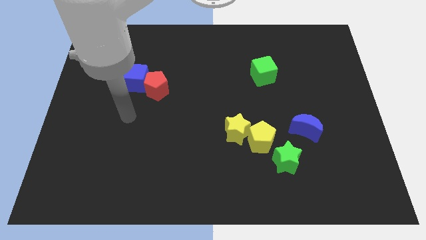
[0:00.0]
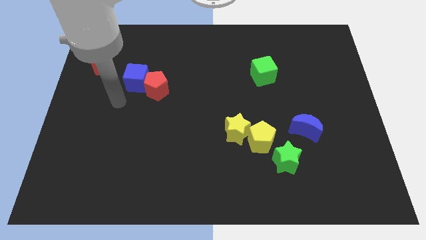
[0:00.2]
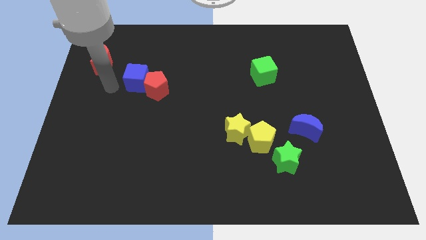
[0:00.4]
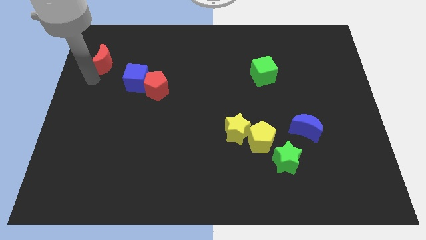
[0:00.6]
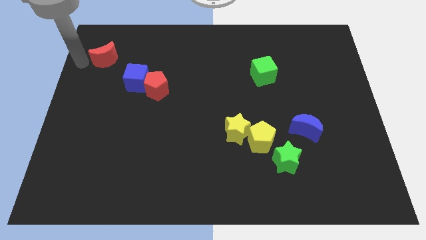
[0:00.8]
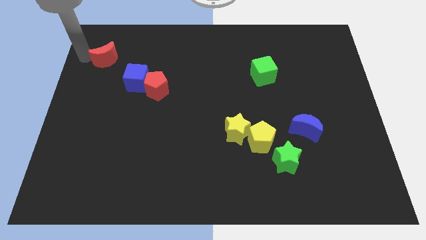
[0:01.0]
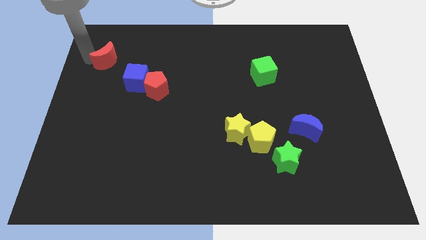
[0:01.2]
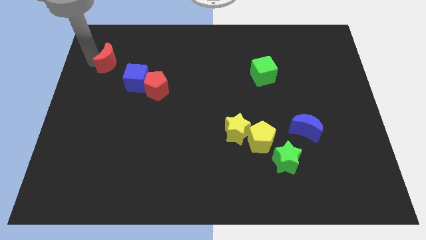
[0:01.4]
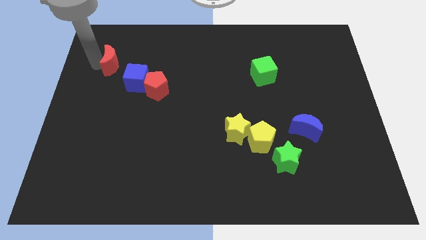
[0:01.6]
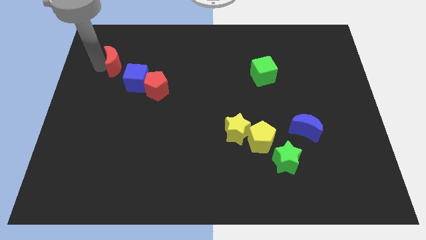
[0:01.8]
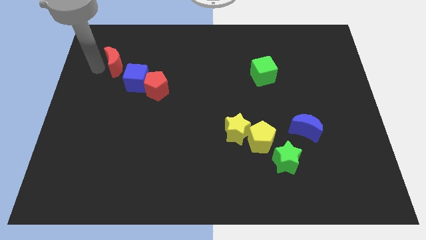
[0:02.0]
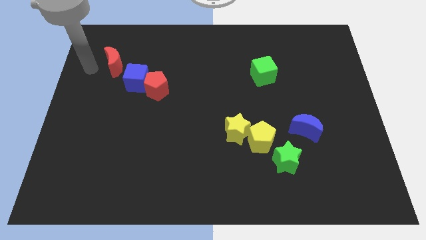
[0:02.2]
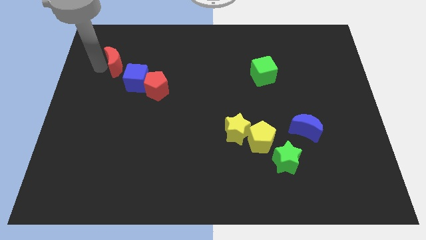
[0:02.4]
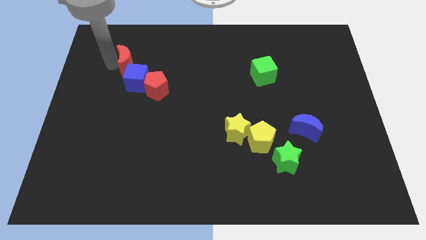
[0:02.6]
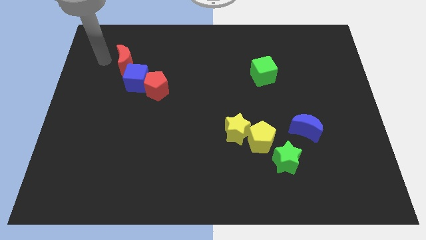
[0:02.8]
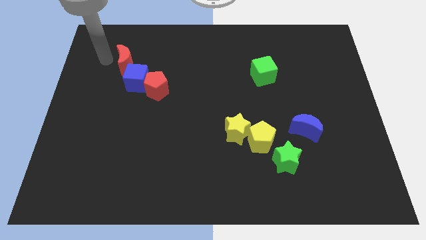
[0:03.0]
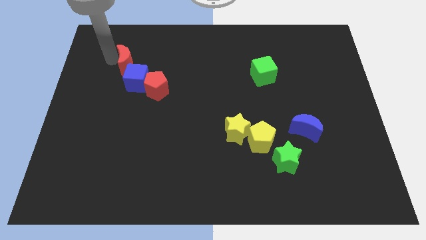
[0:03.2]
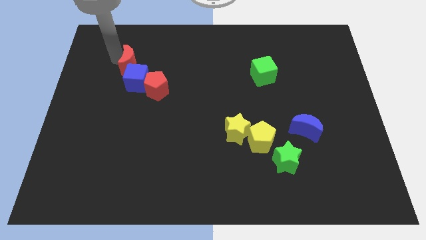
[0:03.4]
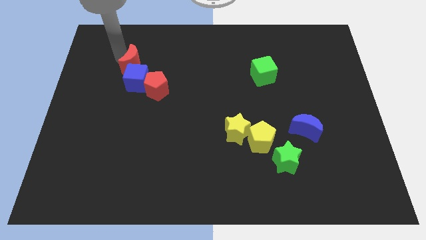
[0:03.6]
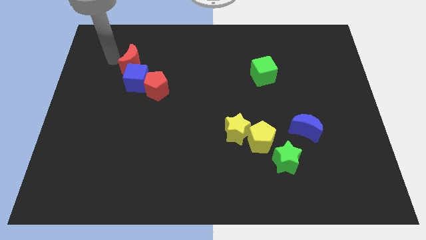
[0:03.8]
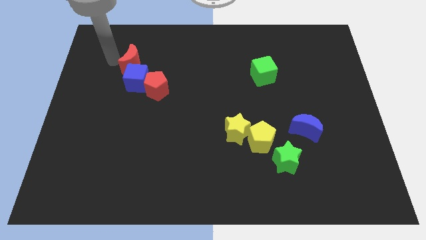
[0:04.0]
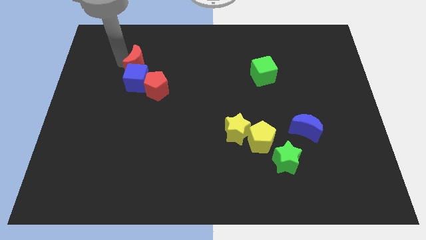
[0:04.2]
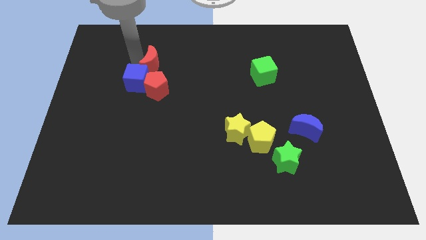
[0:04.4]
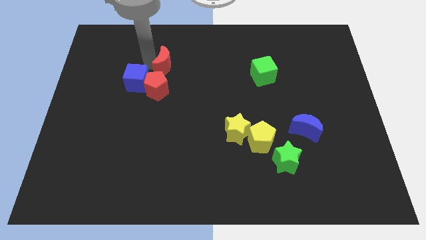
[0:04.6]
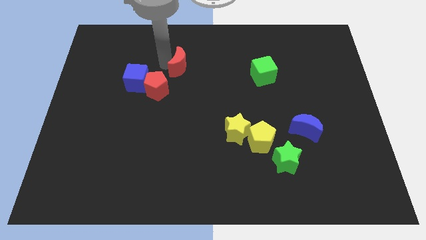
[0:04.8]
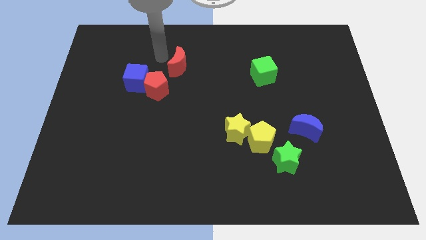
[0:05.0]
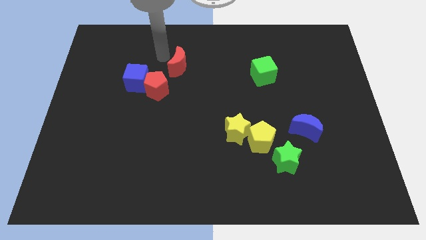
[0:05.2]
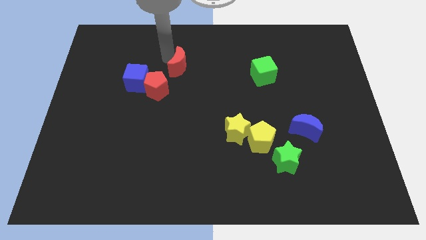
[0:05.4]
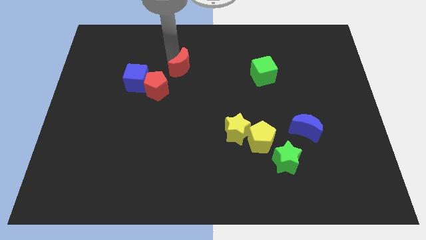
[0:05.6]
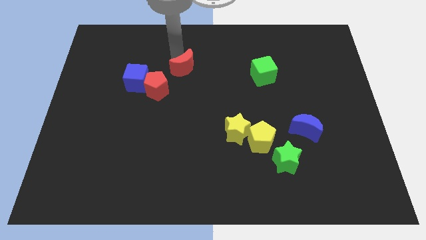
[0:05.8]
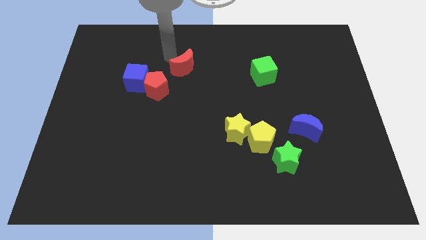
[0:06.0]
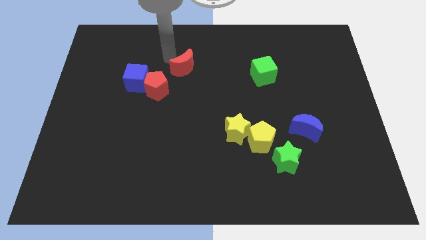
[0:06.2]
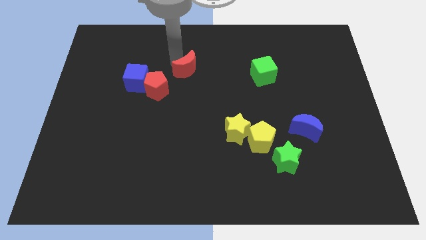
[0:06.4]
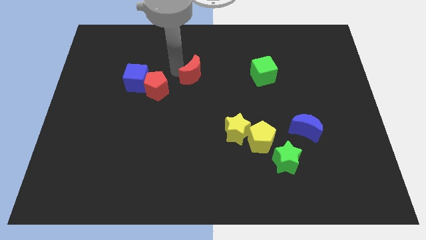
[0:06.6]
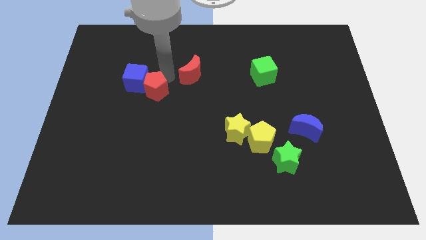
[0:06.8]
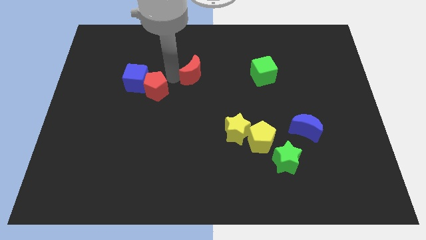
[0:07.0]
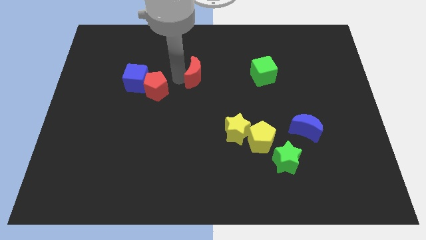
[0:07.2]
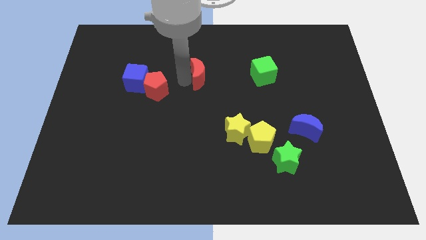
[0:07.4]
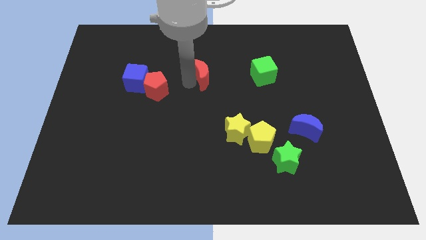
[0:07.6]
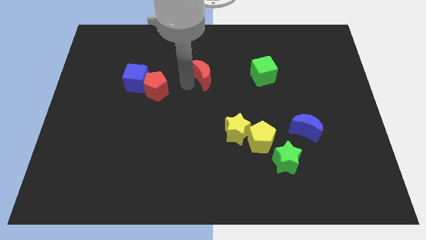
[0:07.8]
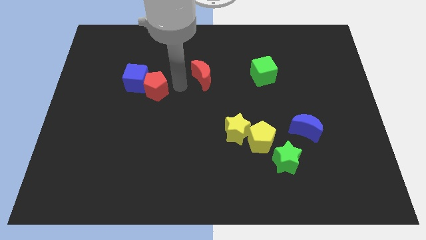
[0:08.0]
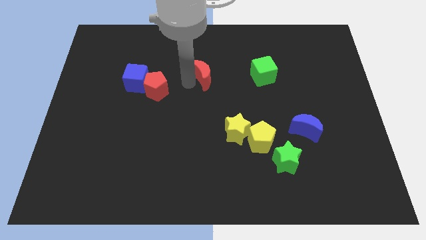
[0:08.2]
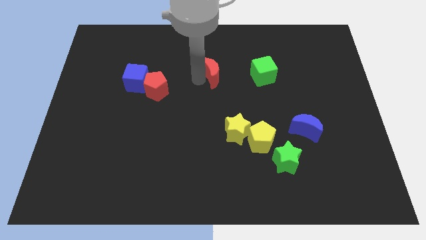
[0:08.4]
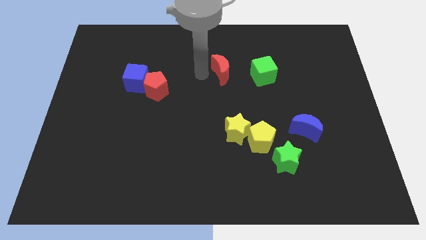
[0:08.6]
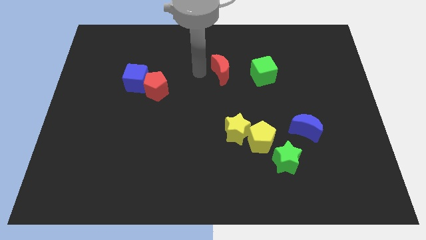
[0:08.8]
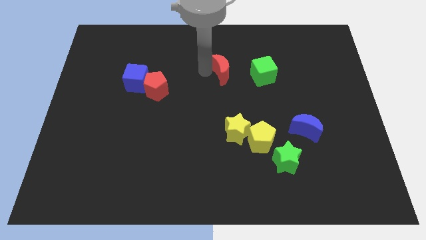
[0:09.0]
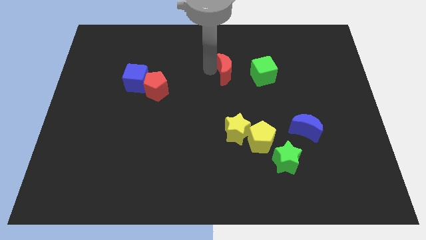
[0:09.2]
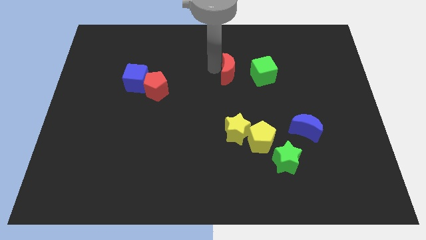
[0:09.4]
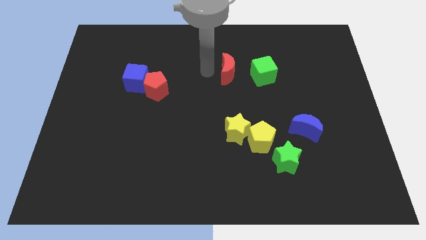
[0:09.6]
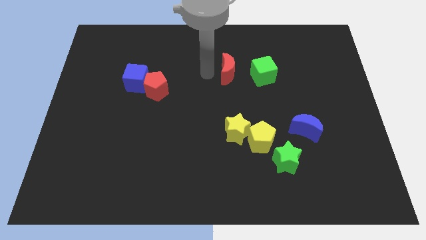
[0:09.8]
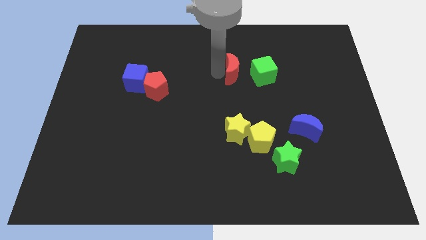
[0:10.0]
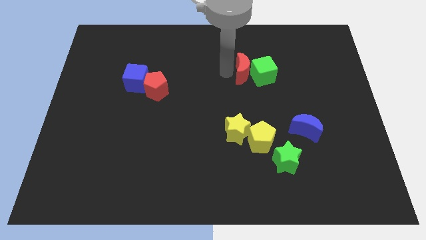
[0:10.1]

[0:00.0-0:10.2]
put the red moon to the green cube

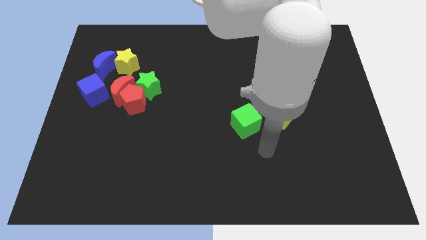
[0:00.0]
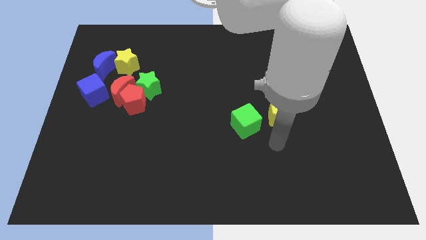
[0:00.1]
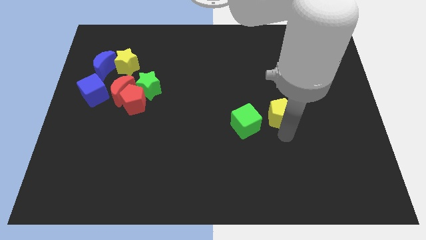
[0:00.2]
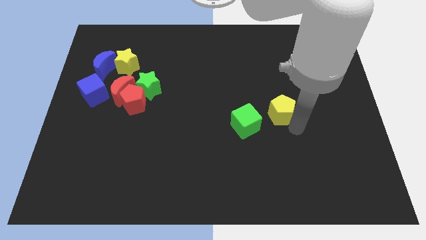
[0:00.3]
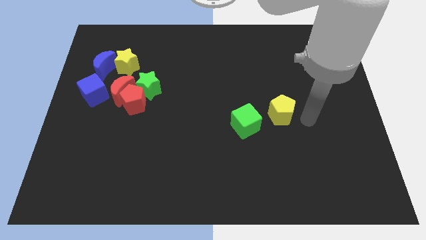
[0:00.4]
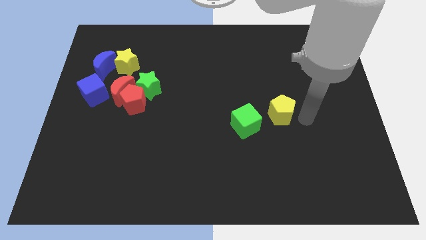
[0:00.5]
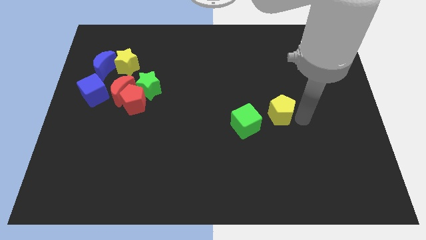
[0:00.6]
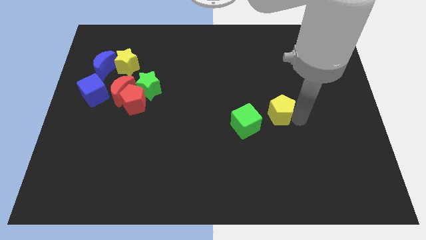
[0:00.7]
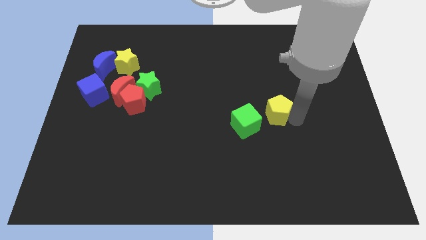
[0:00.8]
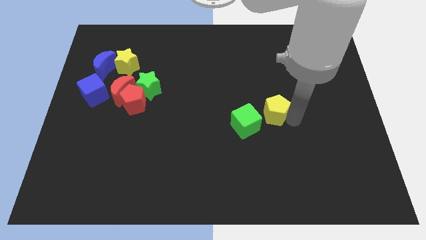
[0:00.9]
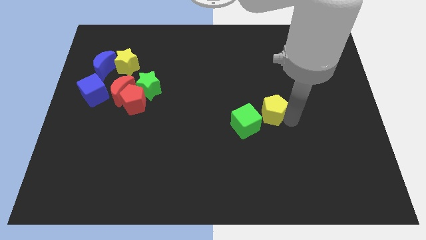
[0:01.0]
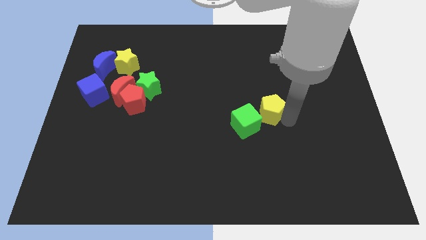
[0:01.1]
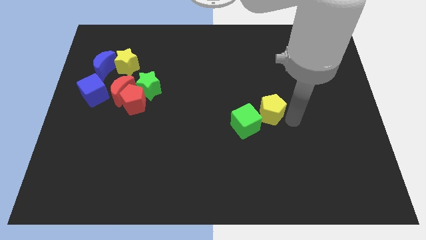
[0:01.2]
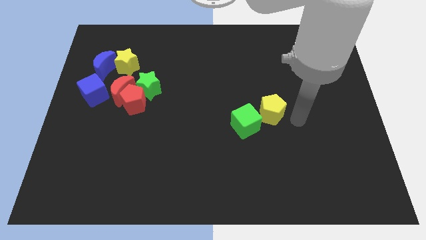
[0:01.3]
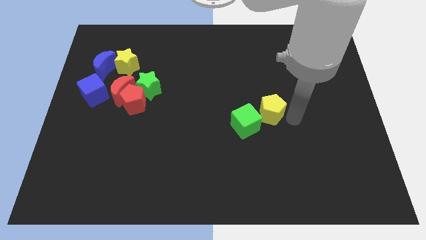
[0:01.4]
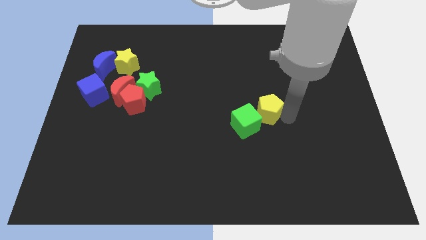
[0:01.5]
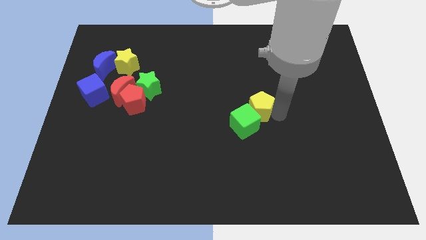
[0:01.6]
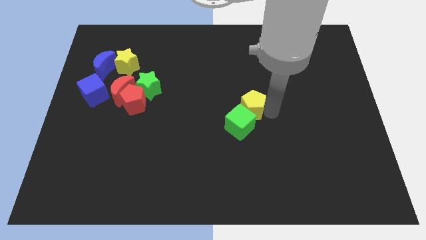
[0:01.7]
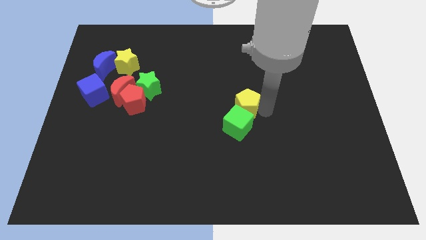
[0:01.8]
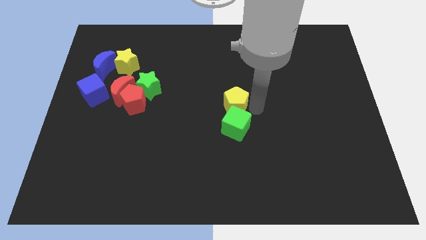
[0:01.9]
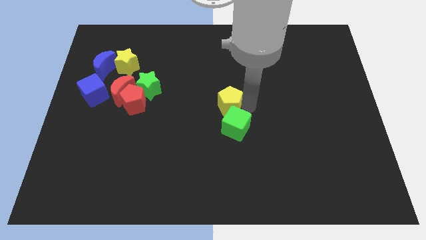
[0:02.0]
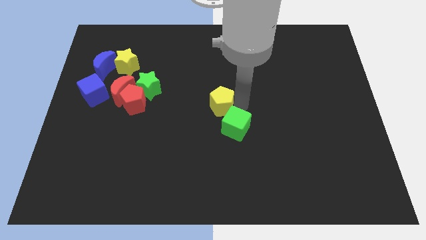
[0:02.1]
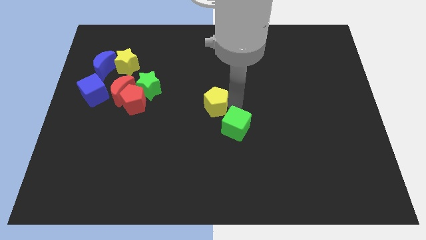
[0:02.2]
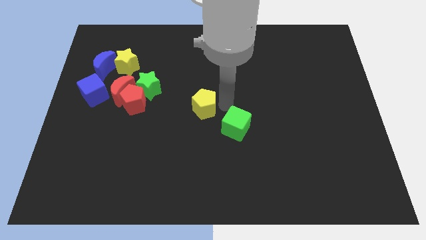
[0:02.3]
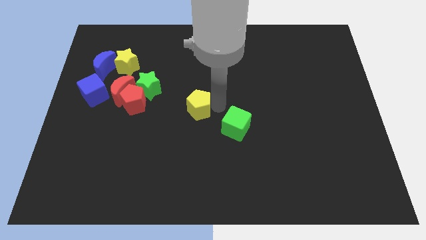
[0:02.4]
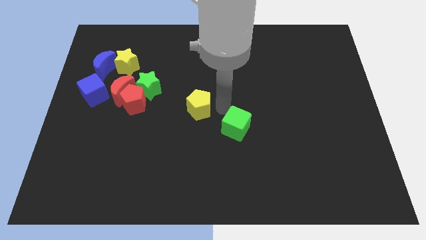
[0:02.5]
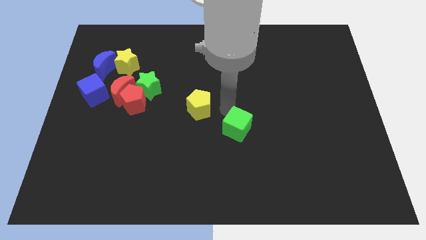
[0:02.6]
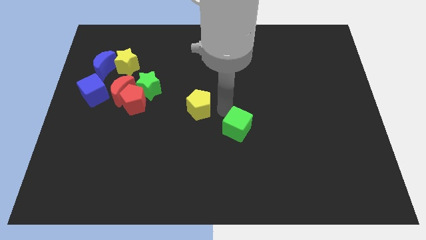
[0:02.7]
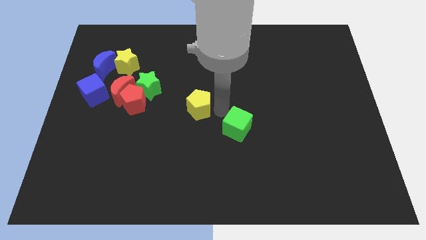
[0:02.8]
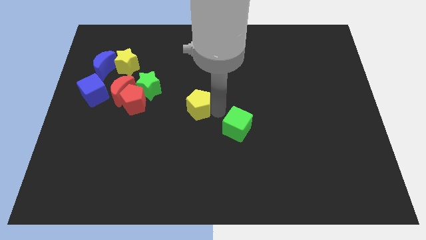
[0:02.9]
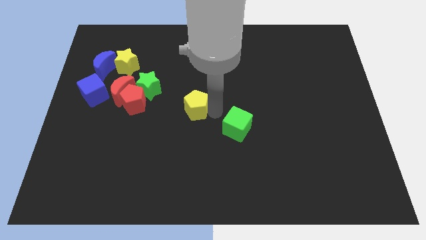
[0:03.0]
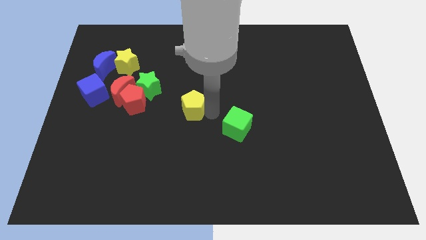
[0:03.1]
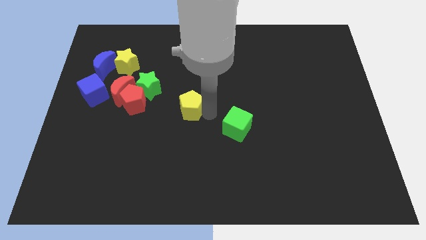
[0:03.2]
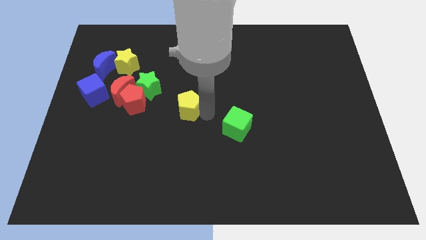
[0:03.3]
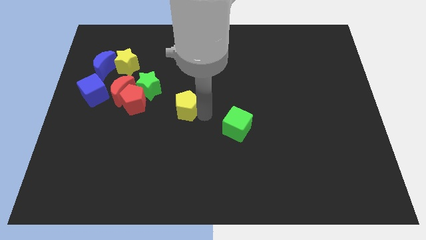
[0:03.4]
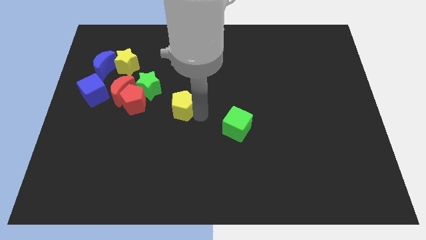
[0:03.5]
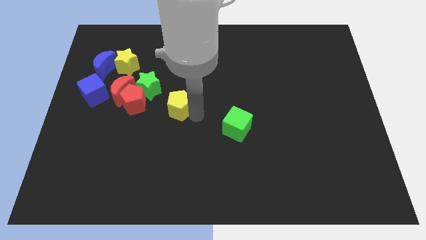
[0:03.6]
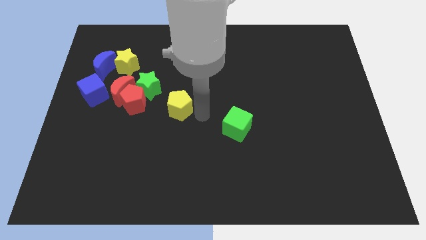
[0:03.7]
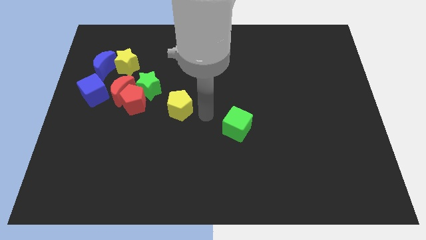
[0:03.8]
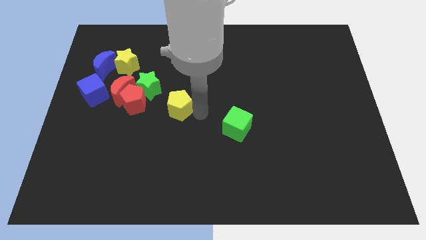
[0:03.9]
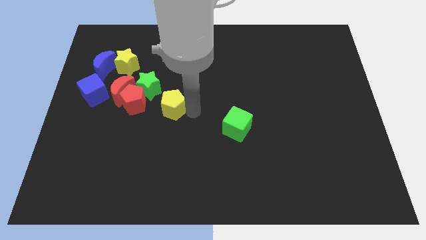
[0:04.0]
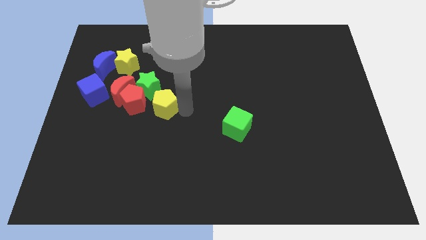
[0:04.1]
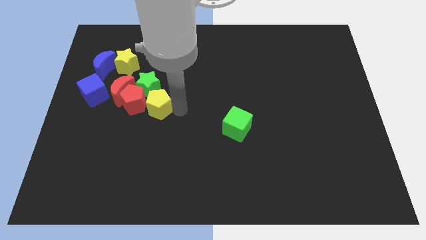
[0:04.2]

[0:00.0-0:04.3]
slide the yellow pentagon next to the red pentagon
